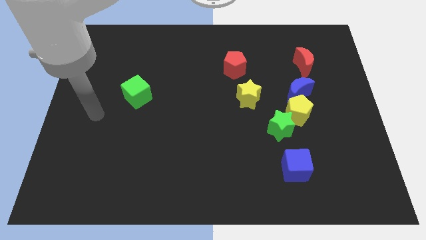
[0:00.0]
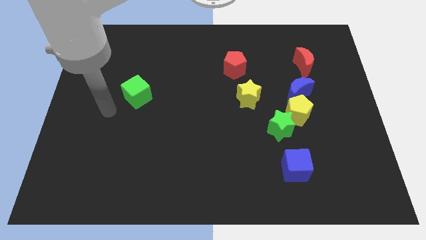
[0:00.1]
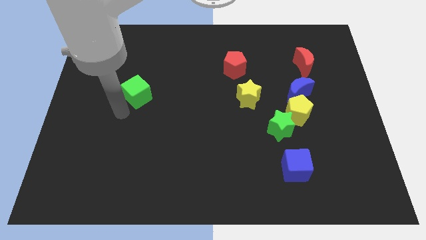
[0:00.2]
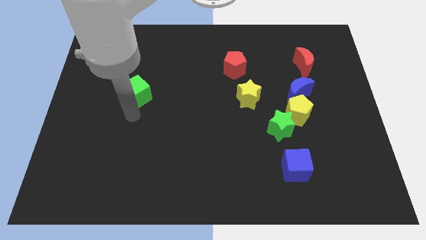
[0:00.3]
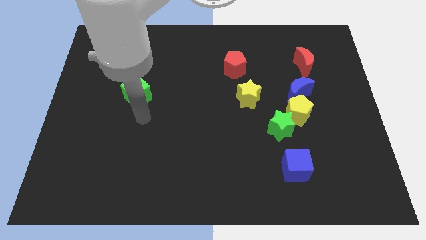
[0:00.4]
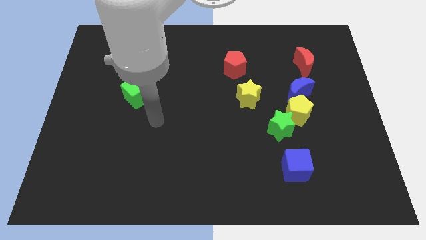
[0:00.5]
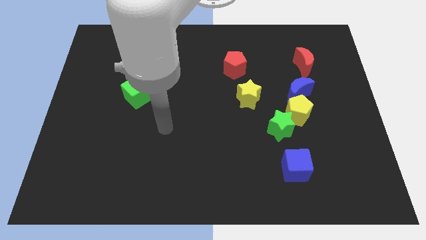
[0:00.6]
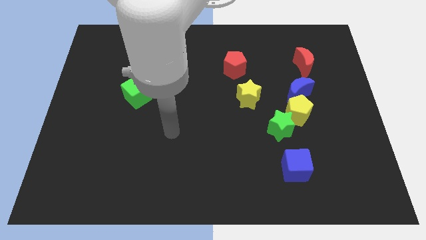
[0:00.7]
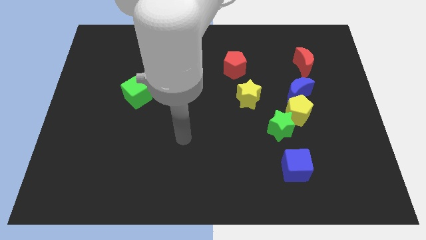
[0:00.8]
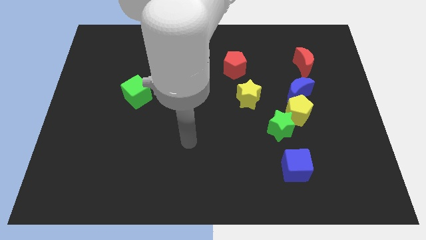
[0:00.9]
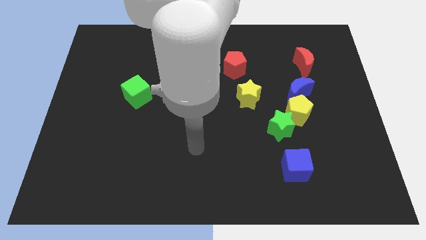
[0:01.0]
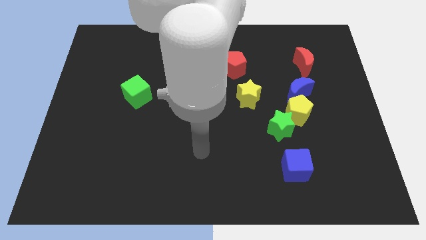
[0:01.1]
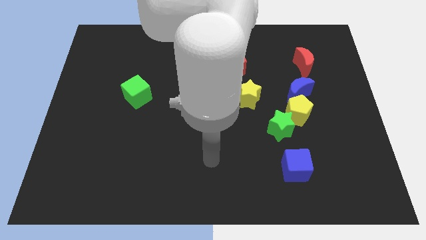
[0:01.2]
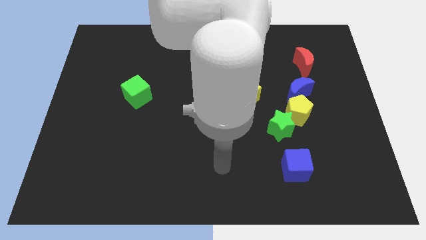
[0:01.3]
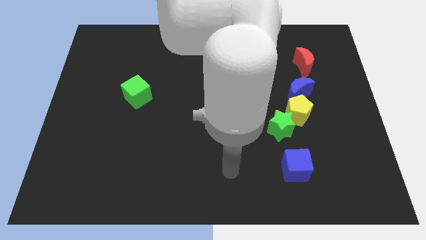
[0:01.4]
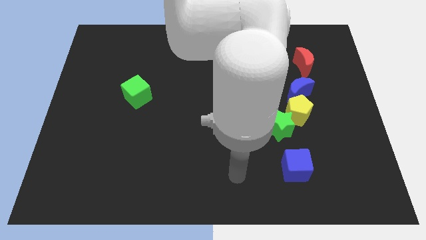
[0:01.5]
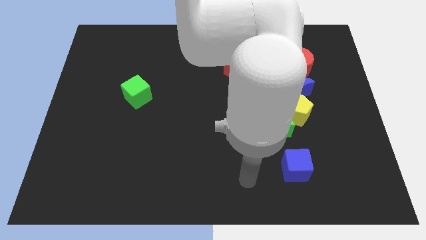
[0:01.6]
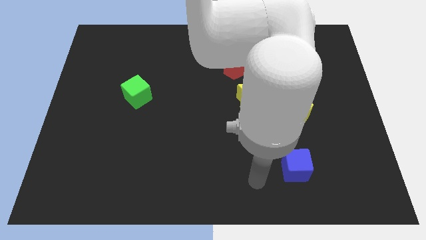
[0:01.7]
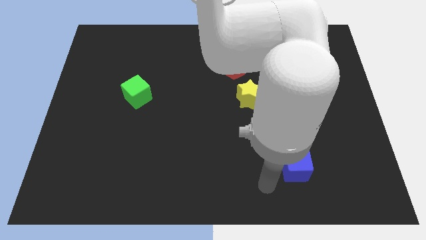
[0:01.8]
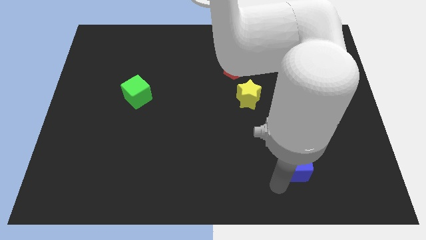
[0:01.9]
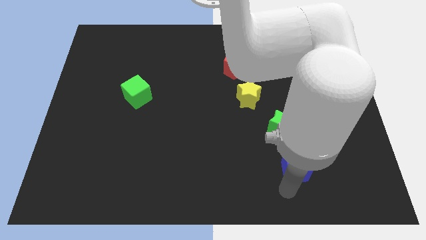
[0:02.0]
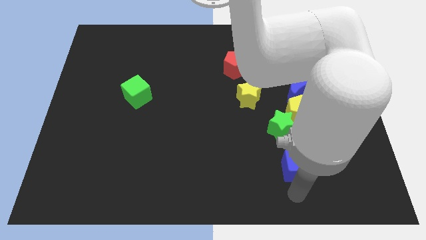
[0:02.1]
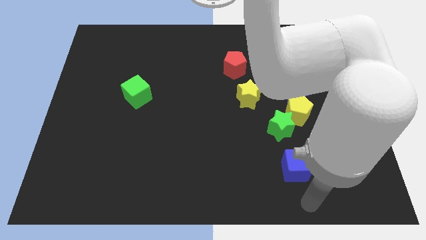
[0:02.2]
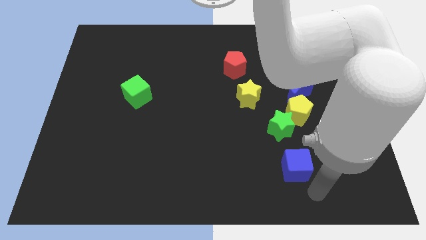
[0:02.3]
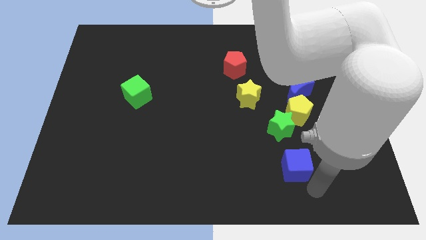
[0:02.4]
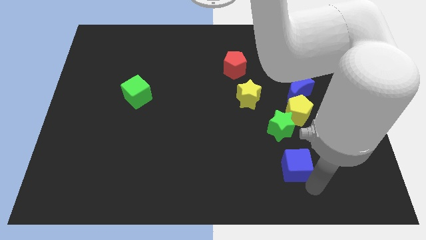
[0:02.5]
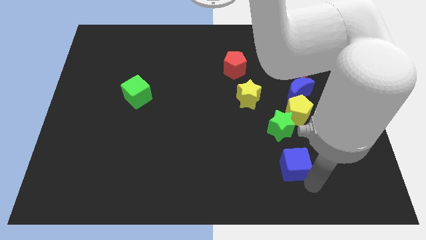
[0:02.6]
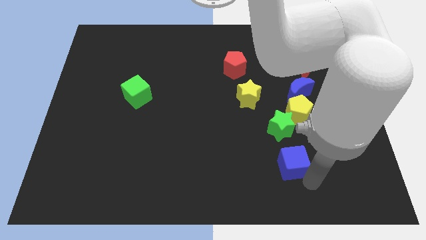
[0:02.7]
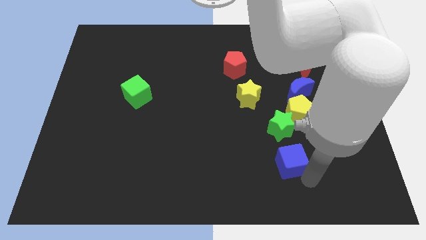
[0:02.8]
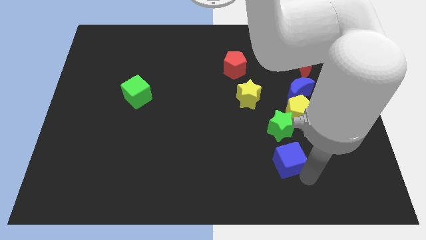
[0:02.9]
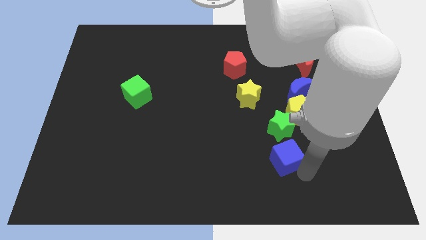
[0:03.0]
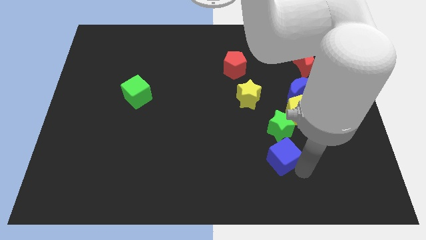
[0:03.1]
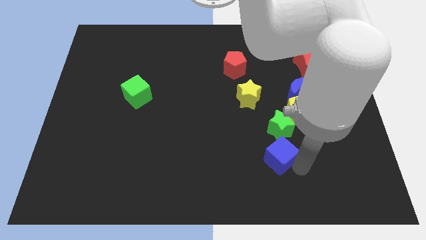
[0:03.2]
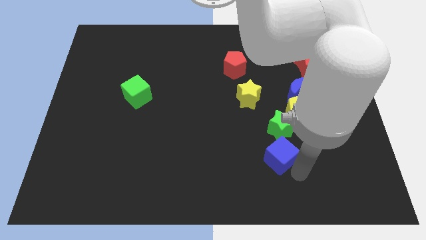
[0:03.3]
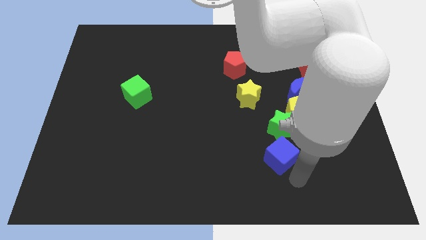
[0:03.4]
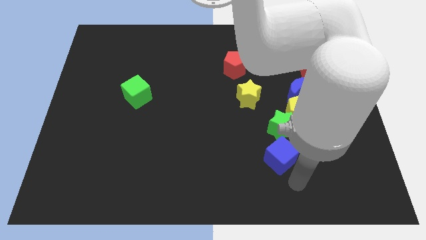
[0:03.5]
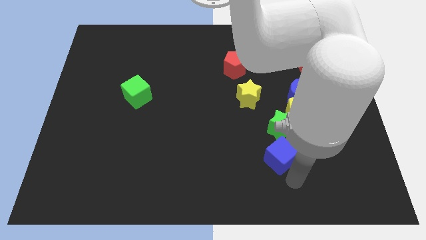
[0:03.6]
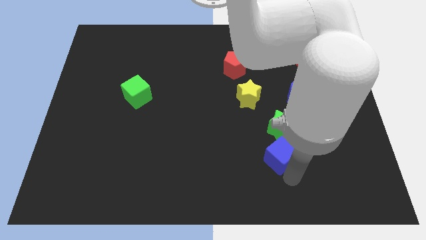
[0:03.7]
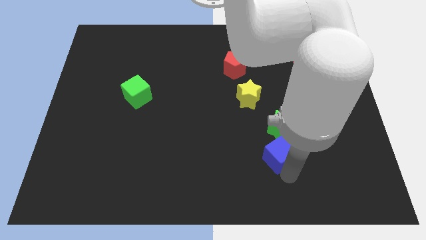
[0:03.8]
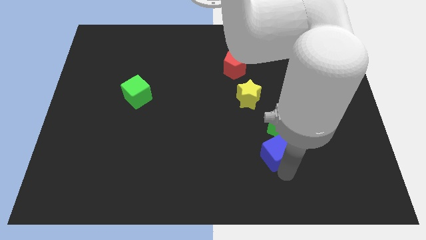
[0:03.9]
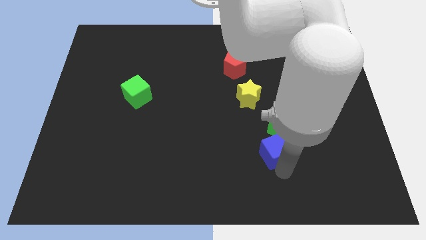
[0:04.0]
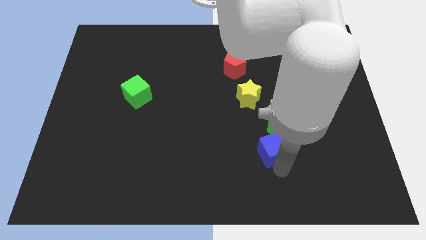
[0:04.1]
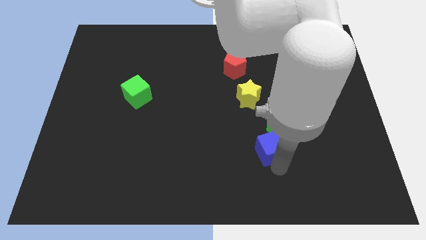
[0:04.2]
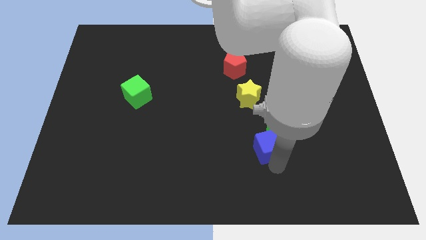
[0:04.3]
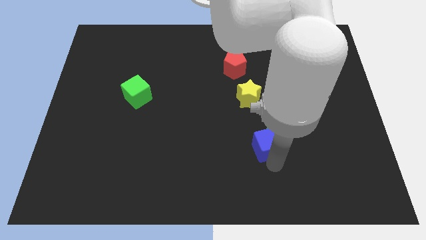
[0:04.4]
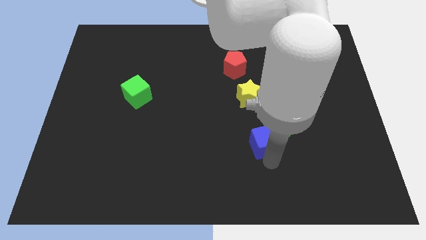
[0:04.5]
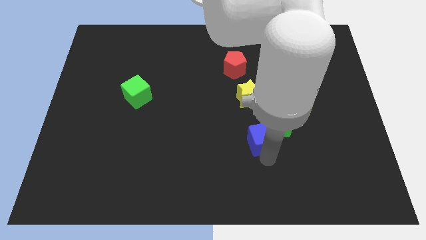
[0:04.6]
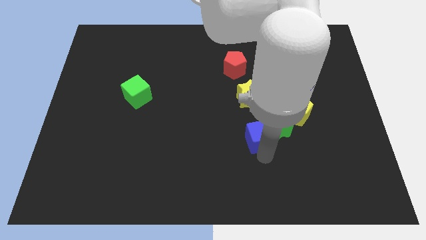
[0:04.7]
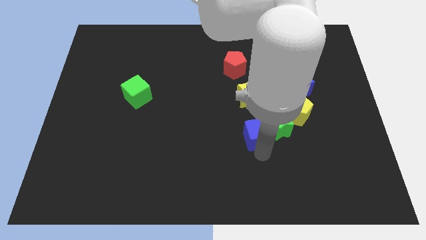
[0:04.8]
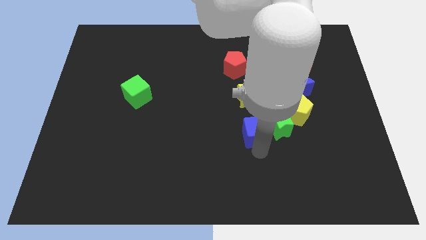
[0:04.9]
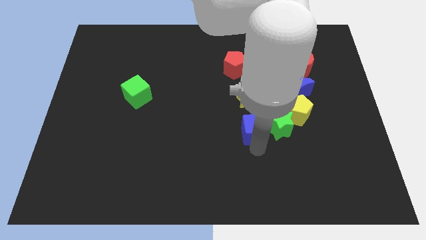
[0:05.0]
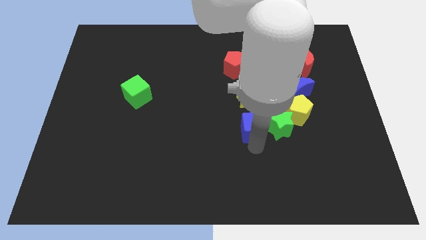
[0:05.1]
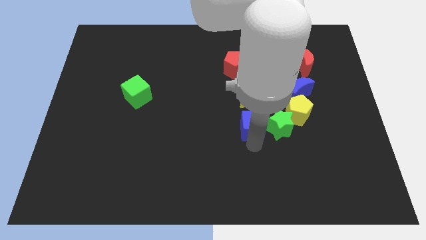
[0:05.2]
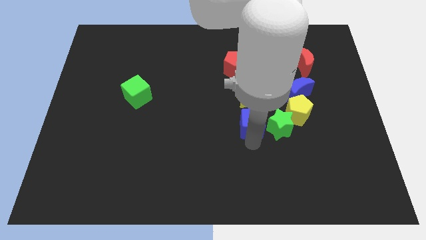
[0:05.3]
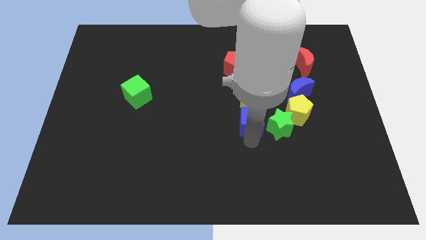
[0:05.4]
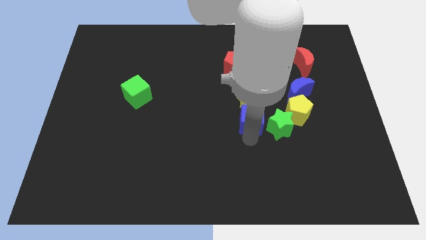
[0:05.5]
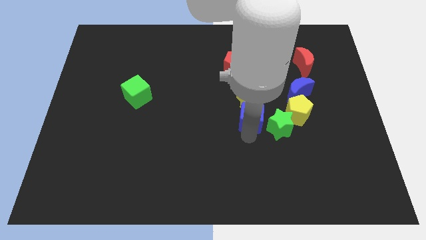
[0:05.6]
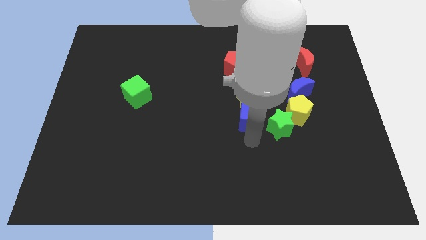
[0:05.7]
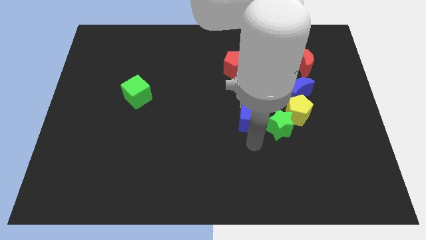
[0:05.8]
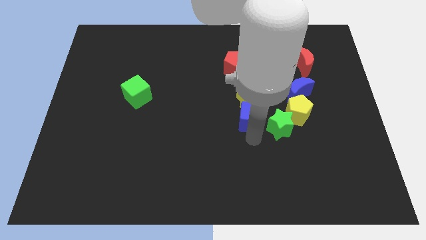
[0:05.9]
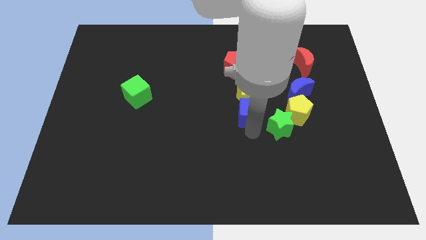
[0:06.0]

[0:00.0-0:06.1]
put the blue cube close to the yellow star

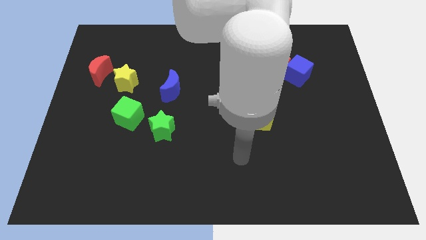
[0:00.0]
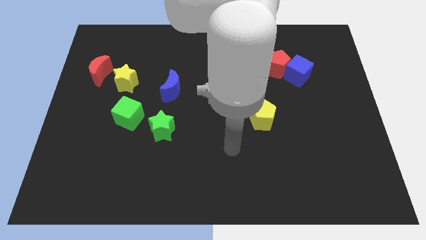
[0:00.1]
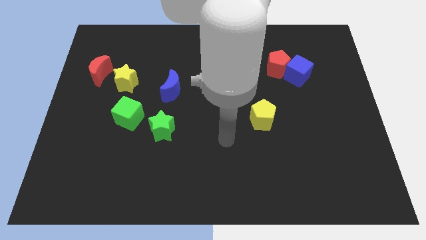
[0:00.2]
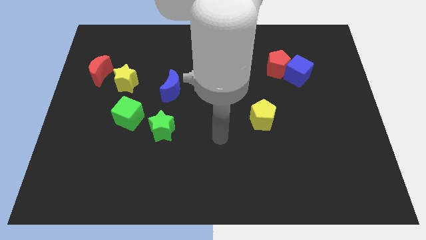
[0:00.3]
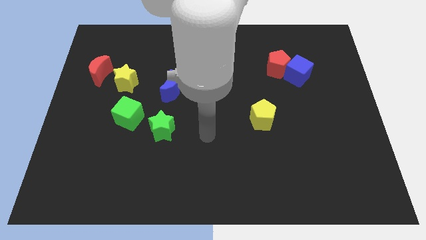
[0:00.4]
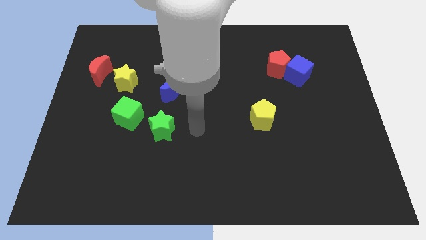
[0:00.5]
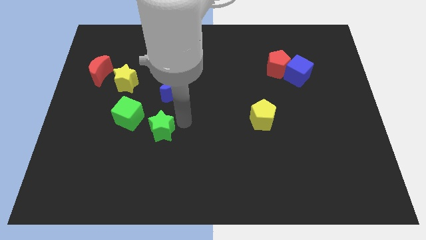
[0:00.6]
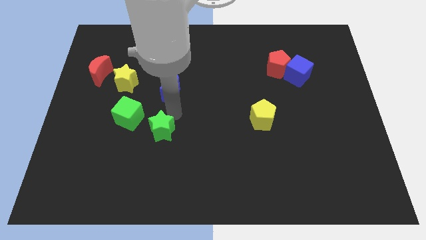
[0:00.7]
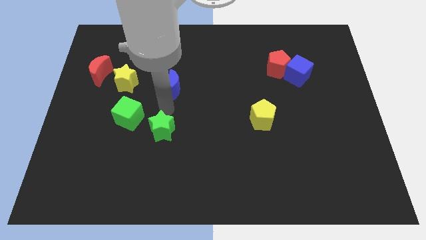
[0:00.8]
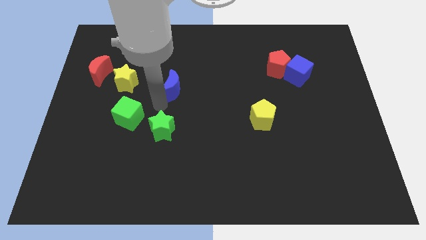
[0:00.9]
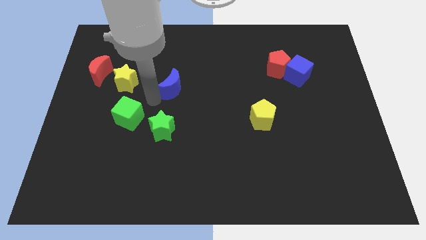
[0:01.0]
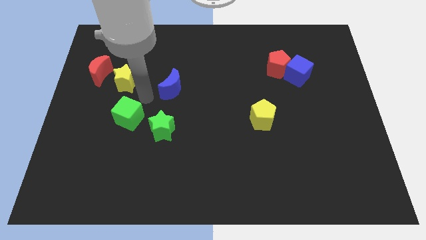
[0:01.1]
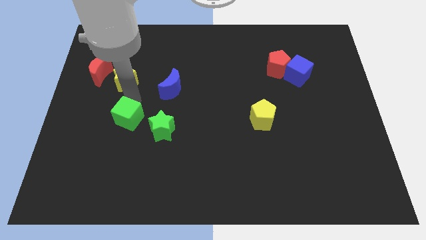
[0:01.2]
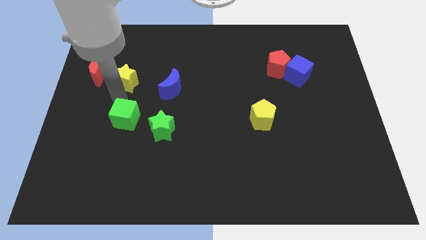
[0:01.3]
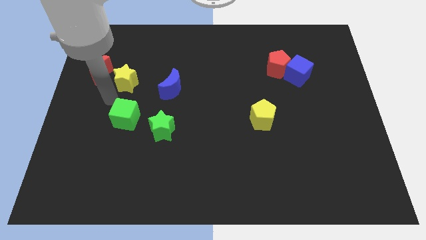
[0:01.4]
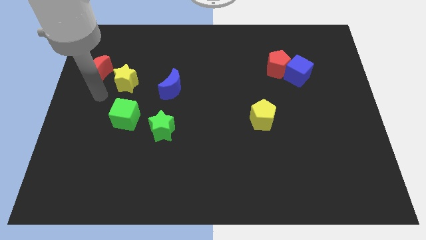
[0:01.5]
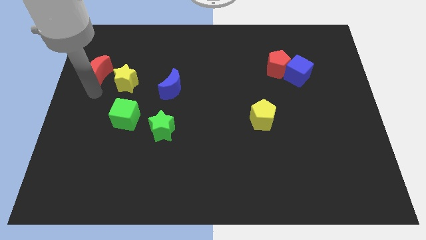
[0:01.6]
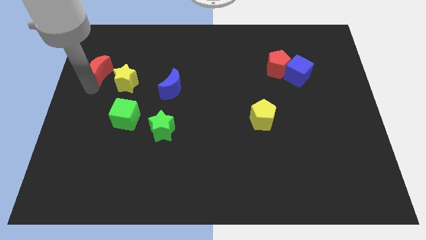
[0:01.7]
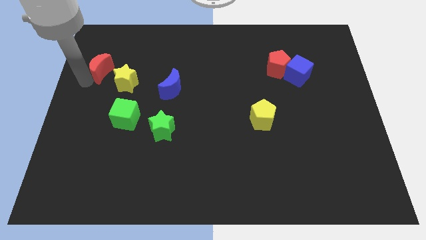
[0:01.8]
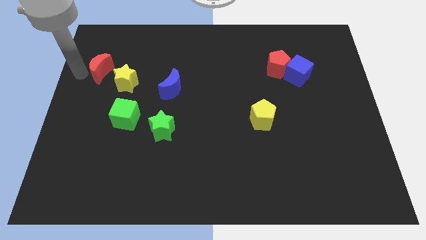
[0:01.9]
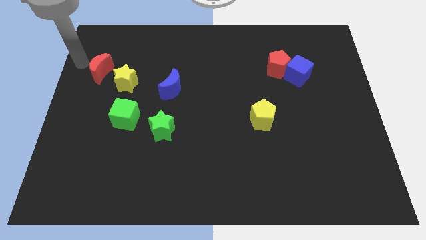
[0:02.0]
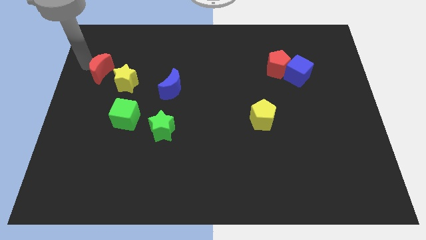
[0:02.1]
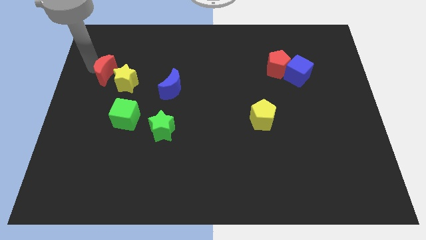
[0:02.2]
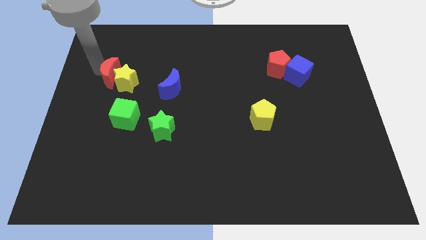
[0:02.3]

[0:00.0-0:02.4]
slide the red moon towards the yellow star
